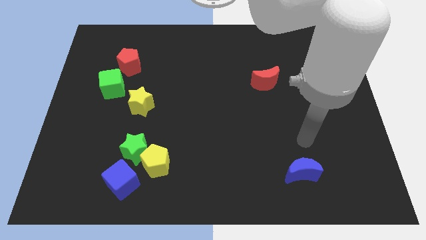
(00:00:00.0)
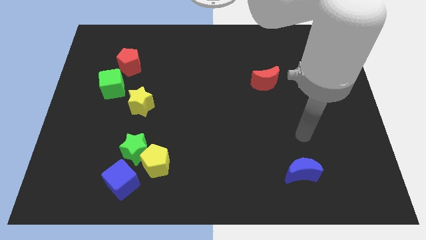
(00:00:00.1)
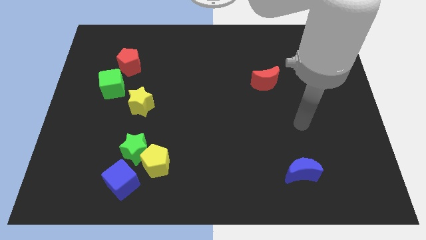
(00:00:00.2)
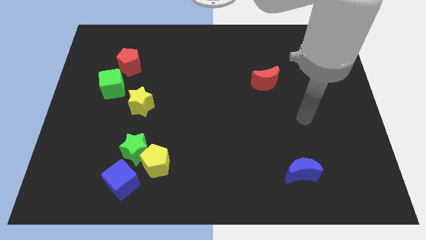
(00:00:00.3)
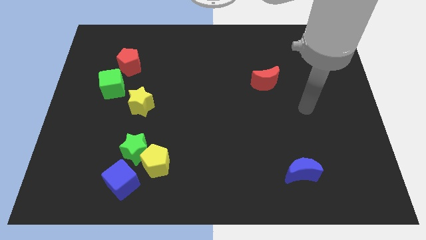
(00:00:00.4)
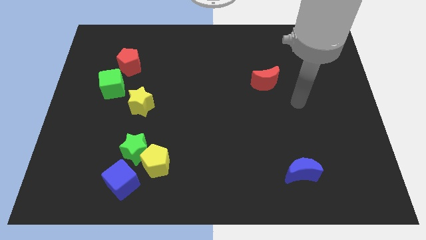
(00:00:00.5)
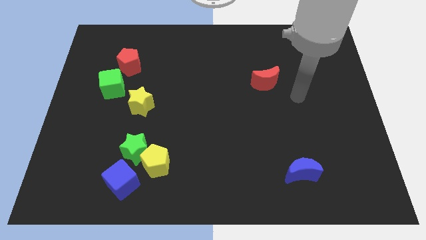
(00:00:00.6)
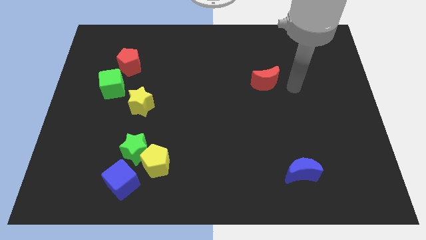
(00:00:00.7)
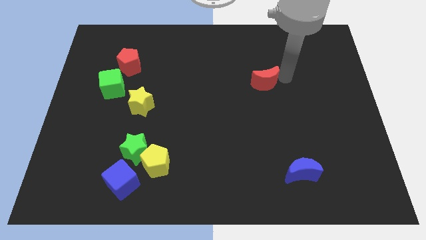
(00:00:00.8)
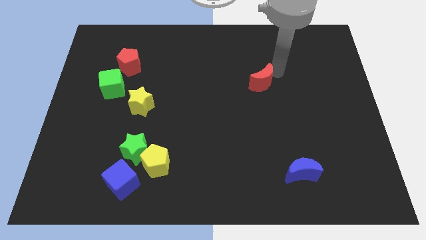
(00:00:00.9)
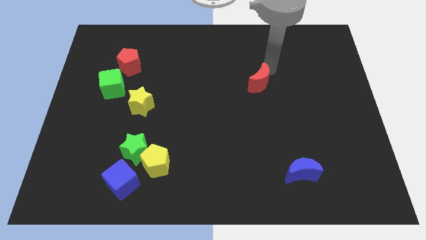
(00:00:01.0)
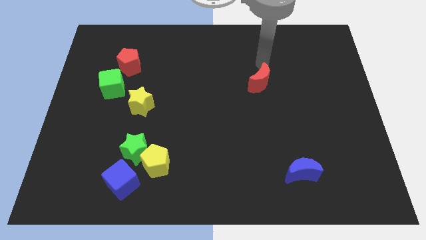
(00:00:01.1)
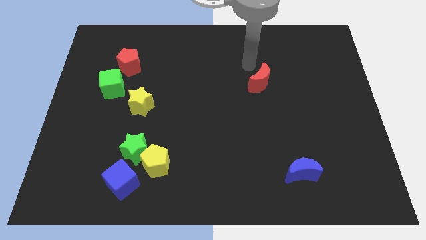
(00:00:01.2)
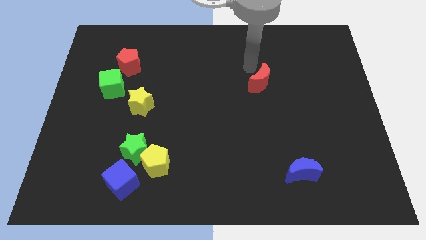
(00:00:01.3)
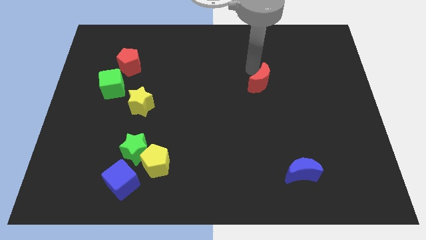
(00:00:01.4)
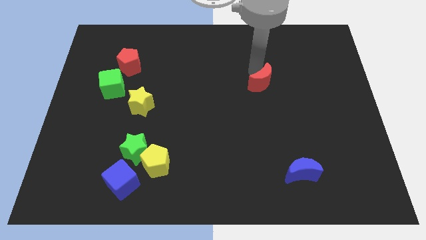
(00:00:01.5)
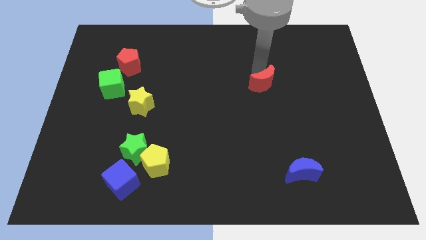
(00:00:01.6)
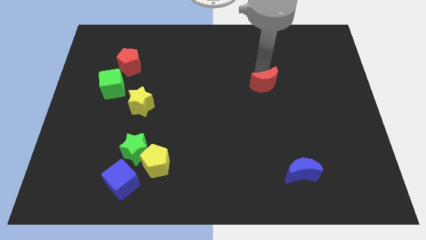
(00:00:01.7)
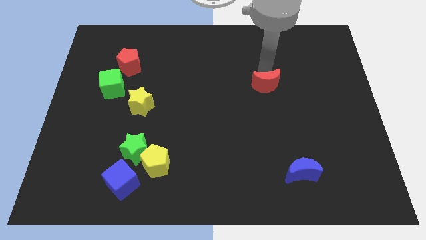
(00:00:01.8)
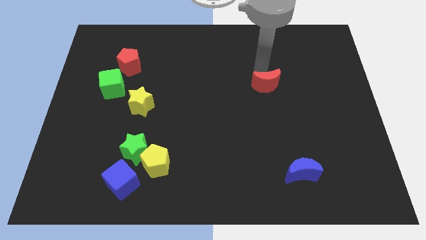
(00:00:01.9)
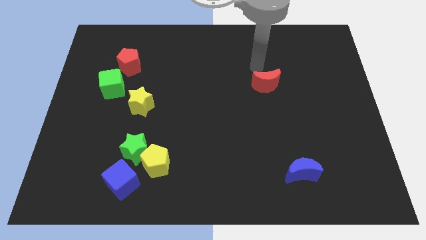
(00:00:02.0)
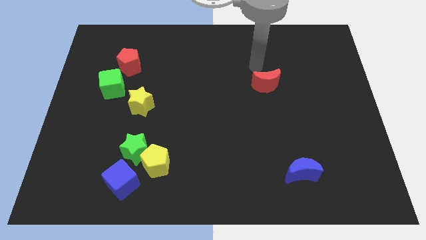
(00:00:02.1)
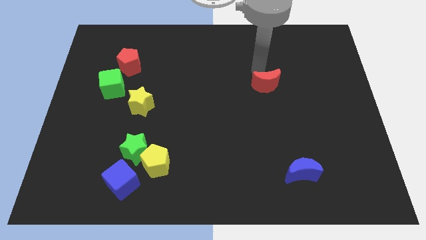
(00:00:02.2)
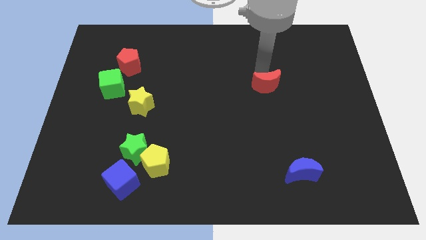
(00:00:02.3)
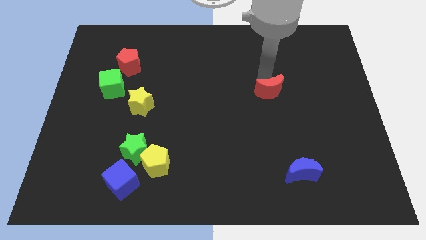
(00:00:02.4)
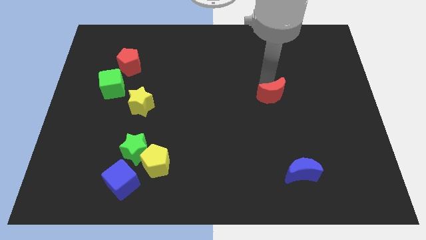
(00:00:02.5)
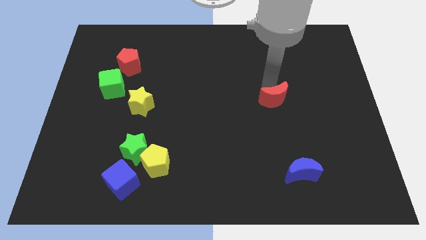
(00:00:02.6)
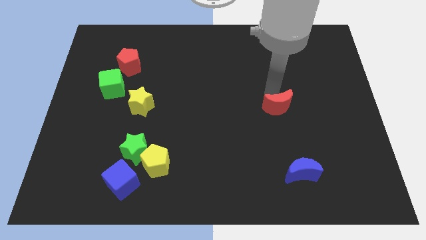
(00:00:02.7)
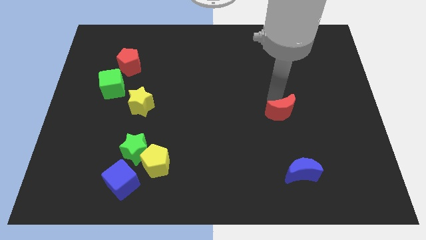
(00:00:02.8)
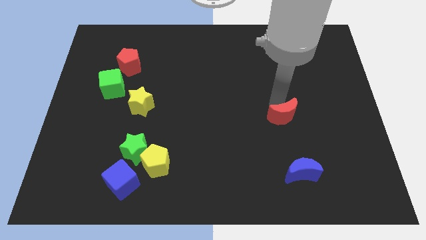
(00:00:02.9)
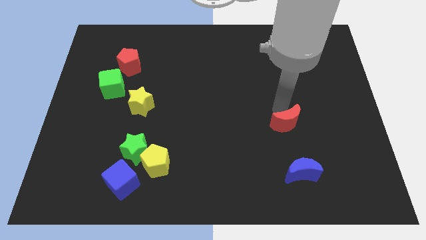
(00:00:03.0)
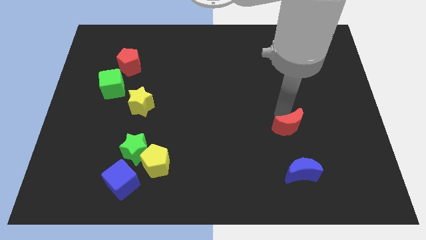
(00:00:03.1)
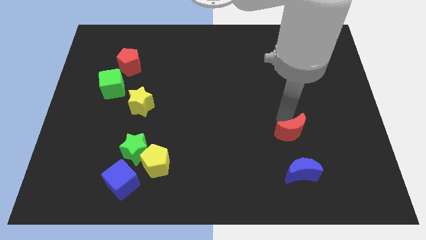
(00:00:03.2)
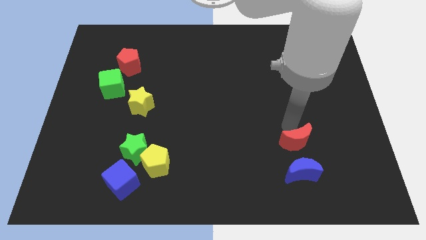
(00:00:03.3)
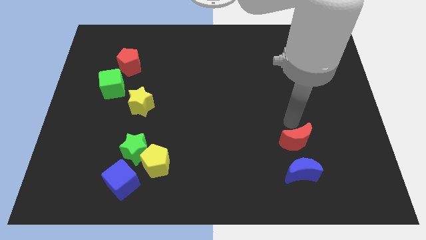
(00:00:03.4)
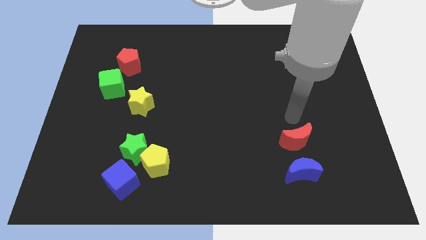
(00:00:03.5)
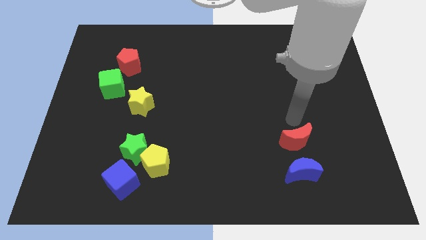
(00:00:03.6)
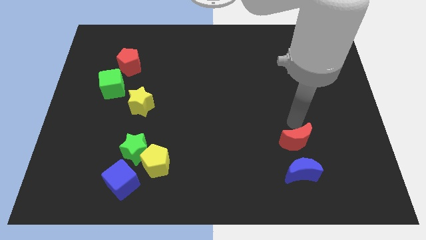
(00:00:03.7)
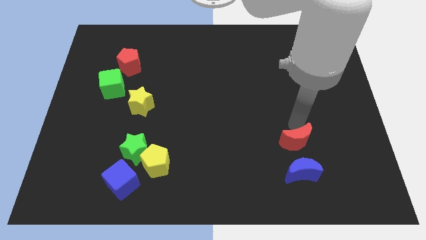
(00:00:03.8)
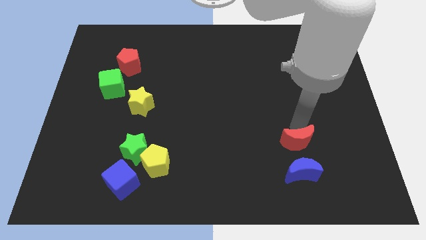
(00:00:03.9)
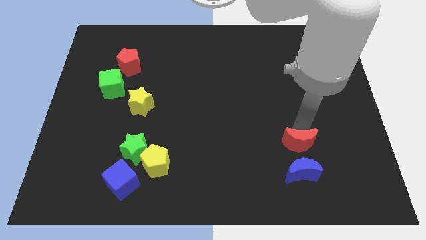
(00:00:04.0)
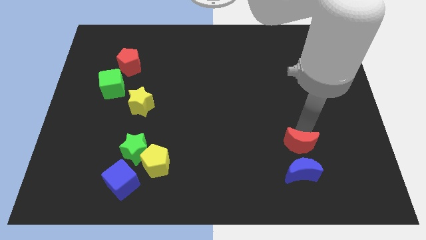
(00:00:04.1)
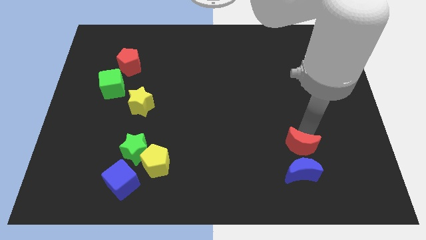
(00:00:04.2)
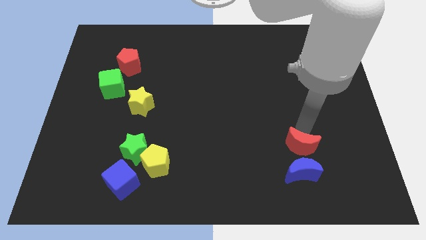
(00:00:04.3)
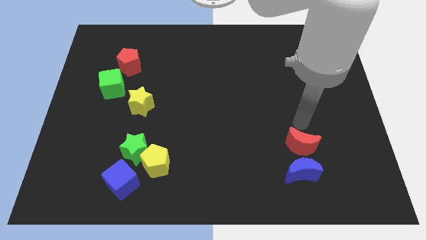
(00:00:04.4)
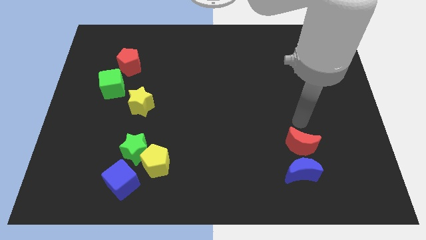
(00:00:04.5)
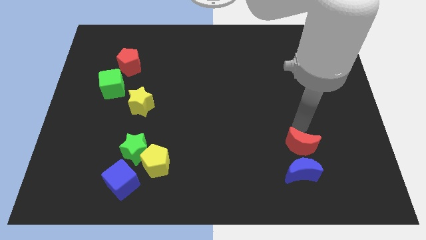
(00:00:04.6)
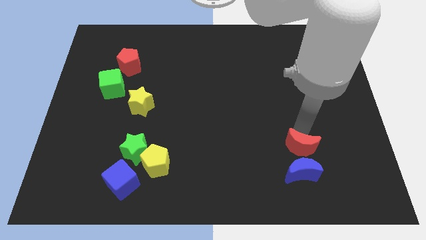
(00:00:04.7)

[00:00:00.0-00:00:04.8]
put the red moon next to the blue moon

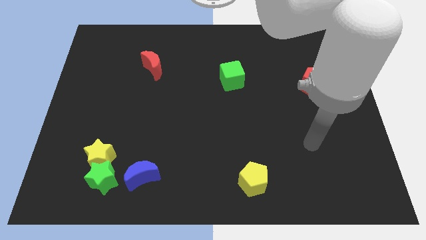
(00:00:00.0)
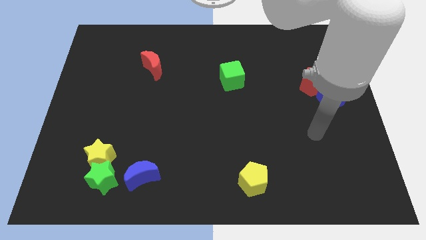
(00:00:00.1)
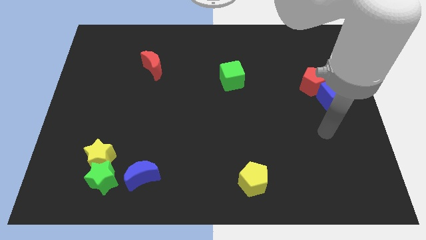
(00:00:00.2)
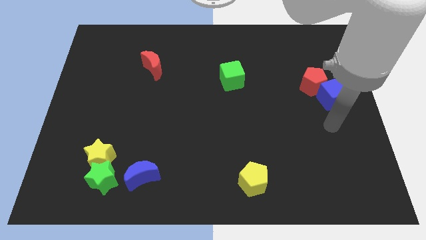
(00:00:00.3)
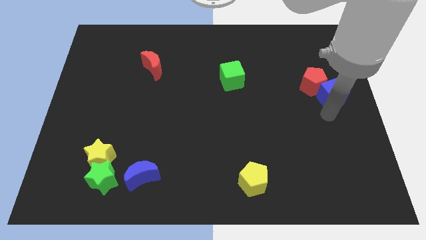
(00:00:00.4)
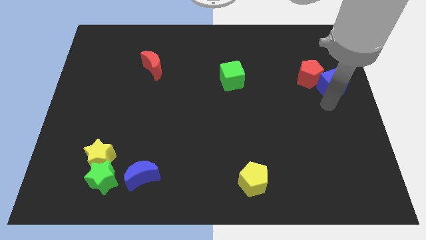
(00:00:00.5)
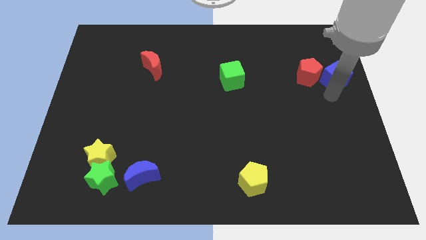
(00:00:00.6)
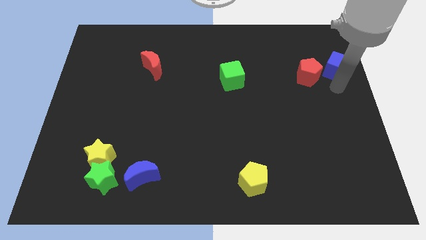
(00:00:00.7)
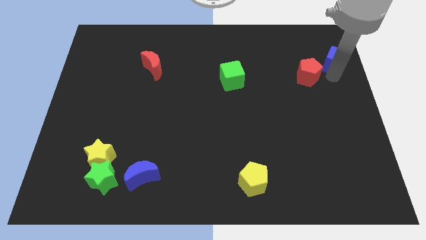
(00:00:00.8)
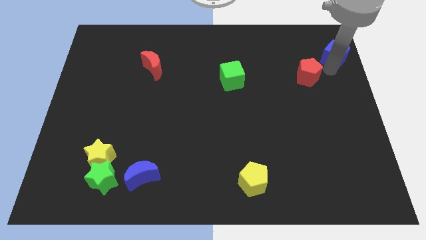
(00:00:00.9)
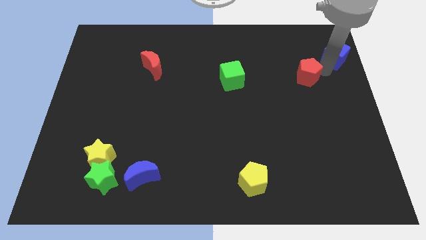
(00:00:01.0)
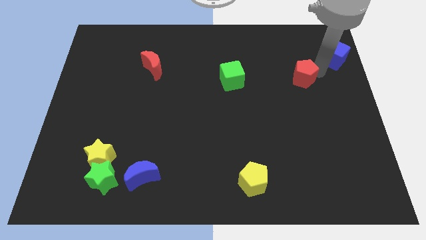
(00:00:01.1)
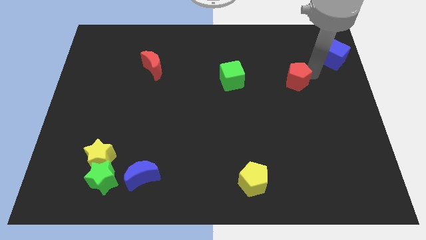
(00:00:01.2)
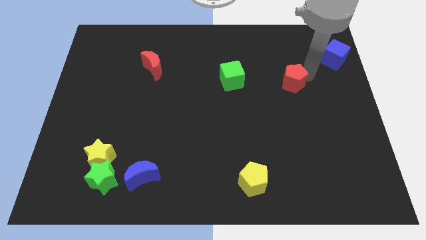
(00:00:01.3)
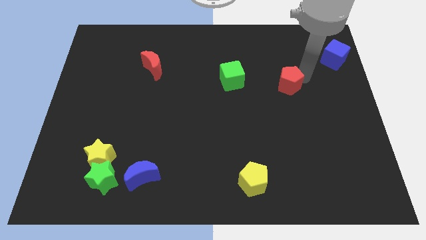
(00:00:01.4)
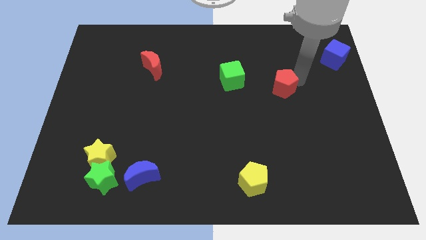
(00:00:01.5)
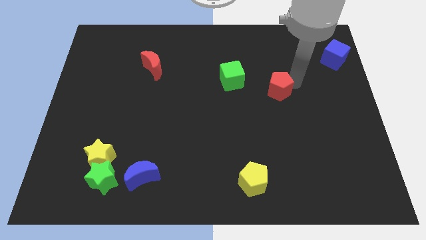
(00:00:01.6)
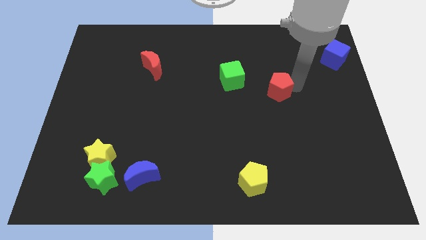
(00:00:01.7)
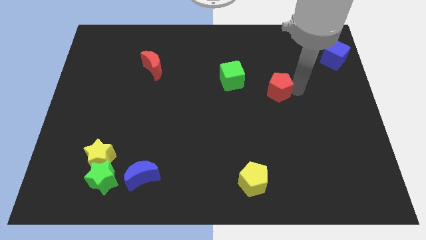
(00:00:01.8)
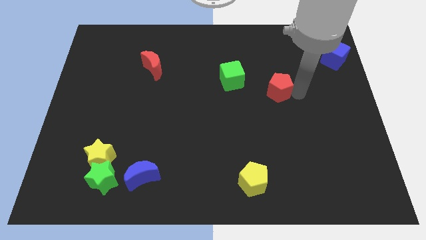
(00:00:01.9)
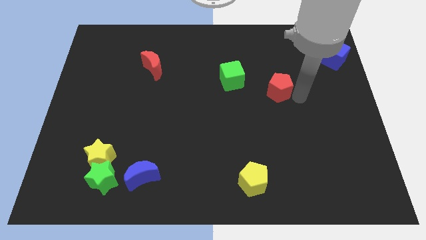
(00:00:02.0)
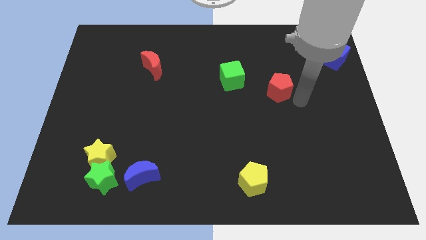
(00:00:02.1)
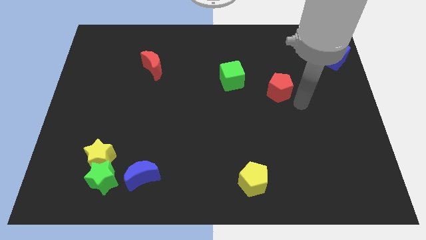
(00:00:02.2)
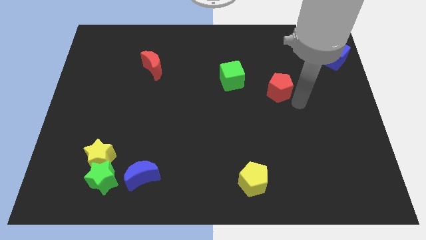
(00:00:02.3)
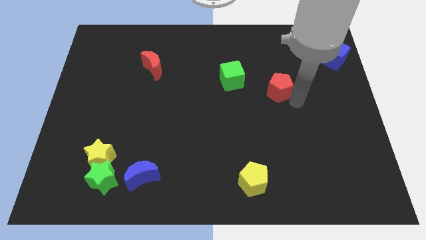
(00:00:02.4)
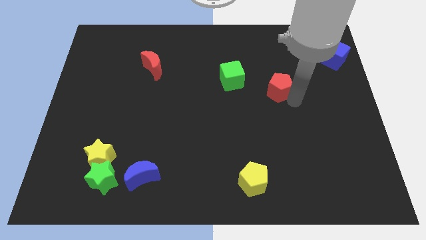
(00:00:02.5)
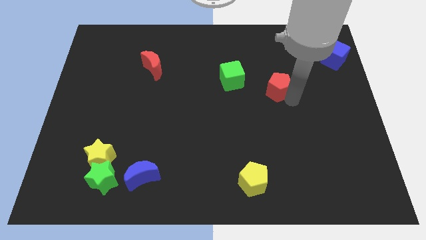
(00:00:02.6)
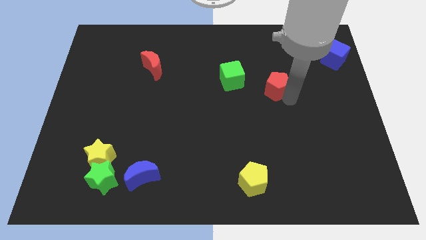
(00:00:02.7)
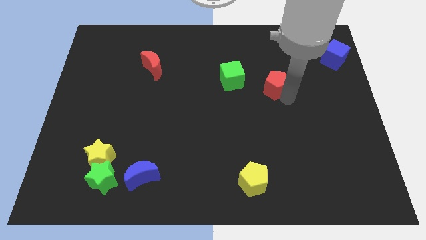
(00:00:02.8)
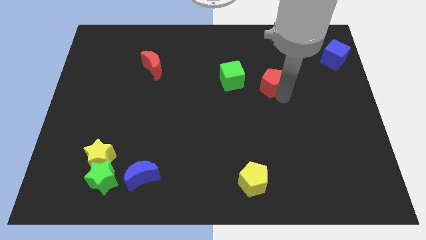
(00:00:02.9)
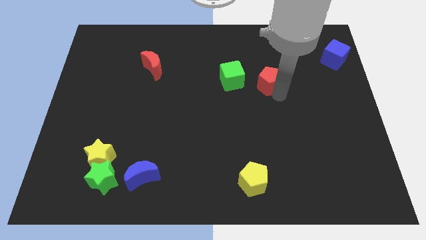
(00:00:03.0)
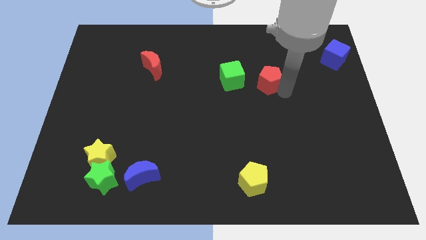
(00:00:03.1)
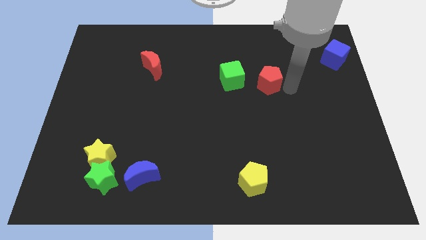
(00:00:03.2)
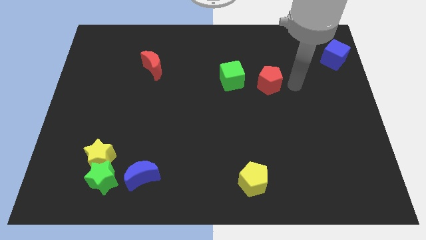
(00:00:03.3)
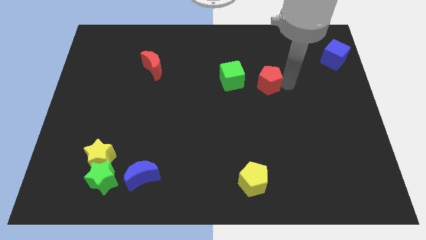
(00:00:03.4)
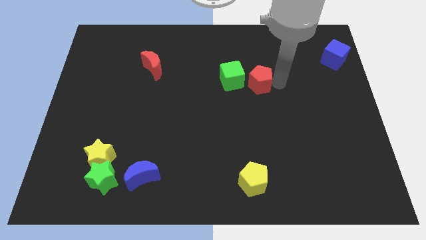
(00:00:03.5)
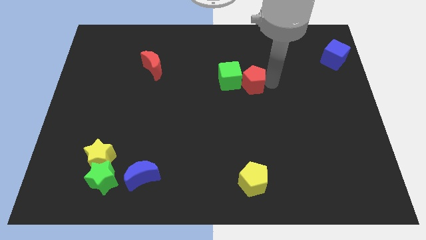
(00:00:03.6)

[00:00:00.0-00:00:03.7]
push the red pentagon close to the green cube
